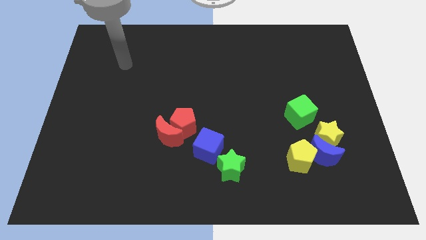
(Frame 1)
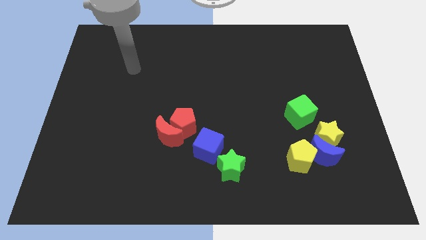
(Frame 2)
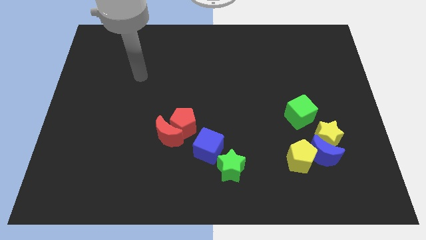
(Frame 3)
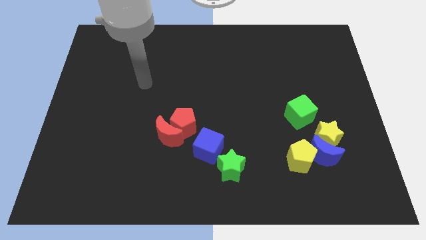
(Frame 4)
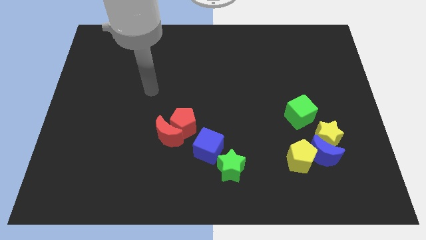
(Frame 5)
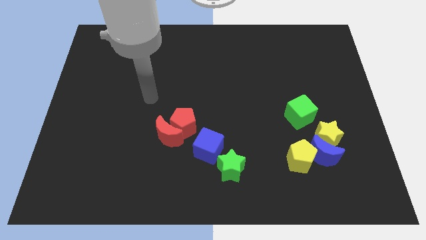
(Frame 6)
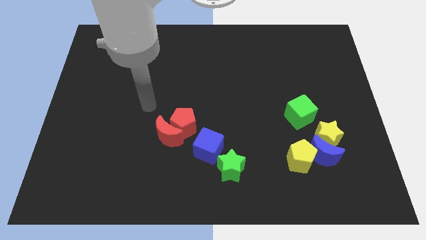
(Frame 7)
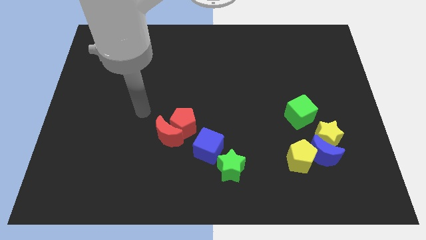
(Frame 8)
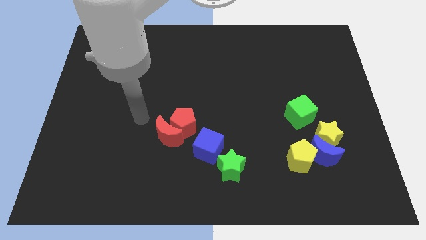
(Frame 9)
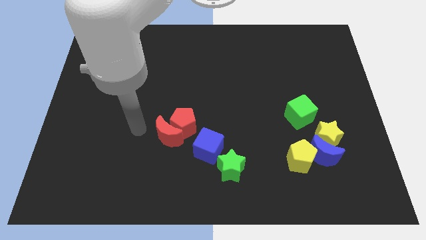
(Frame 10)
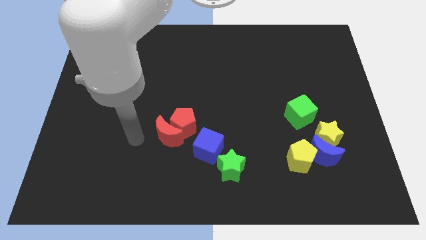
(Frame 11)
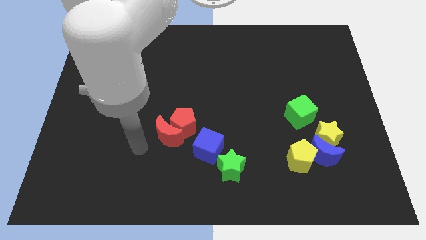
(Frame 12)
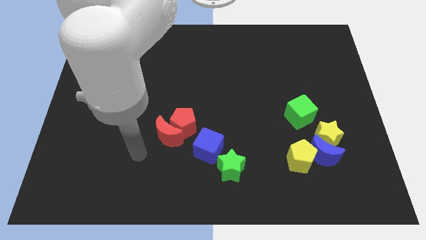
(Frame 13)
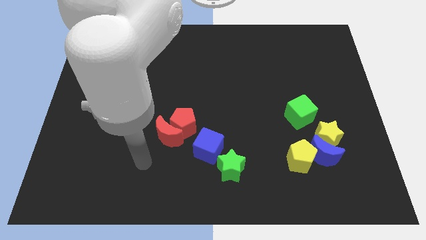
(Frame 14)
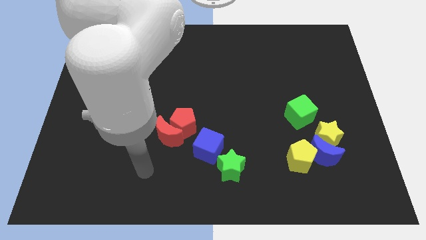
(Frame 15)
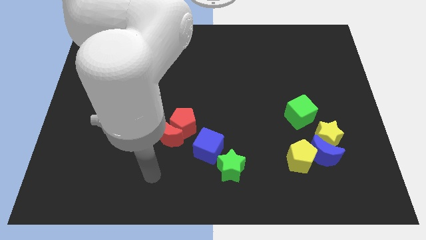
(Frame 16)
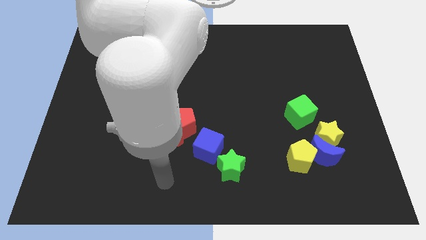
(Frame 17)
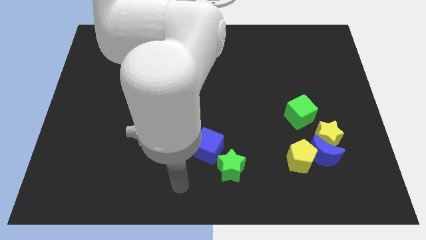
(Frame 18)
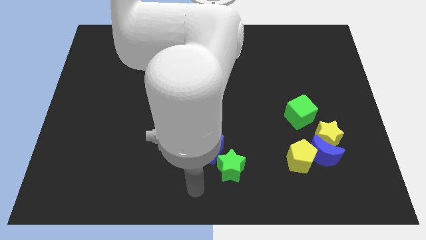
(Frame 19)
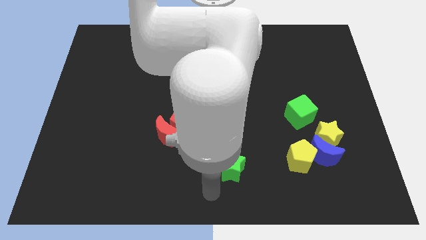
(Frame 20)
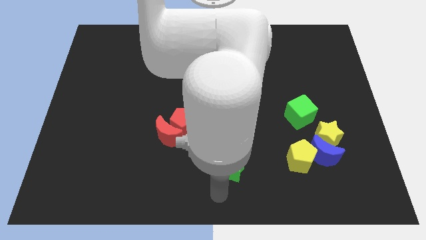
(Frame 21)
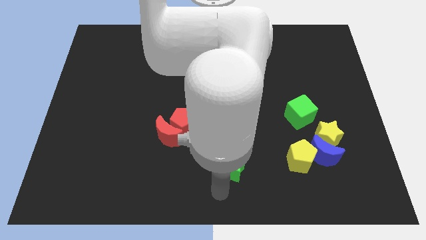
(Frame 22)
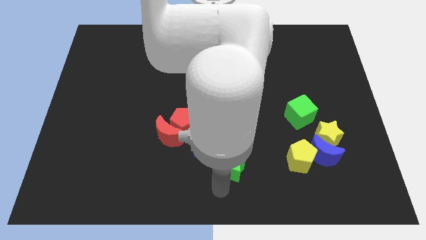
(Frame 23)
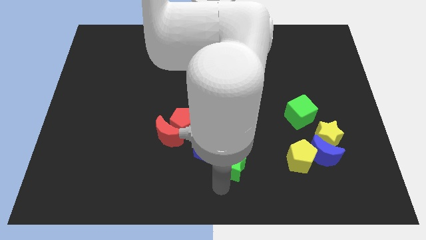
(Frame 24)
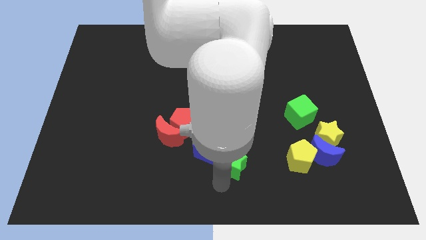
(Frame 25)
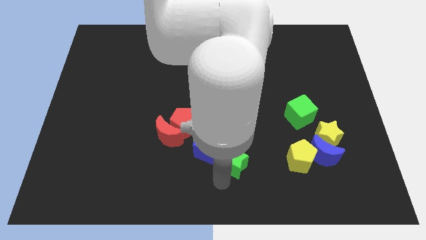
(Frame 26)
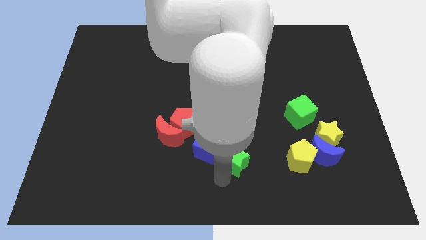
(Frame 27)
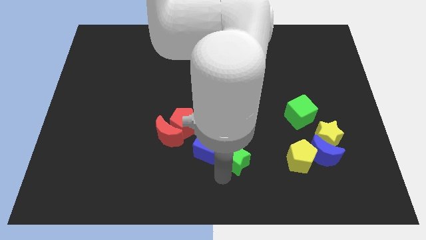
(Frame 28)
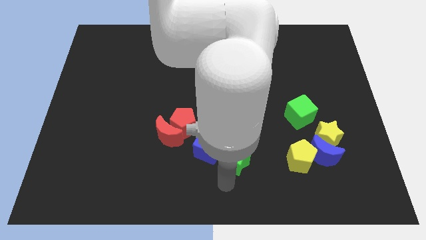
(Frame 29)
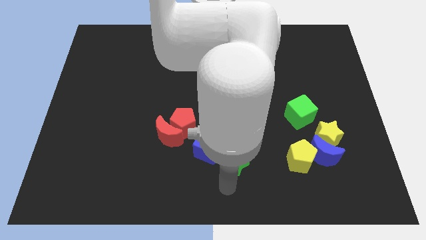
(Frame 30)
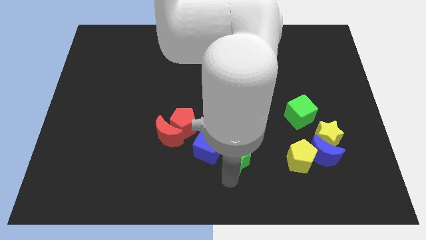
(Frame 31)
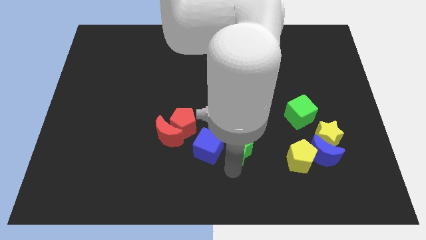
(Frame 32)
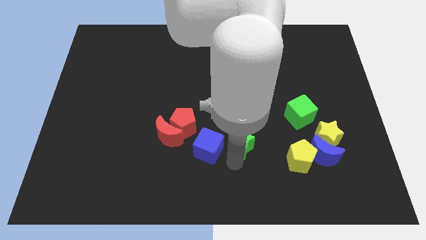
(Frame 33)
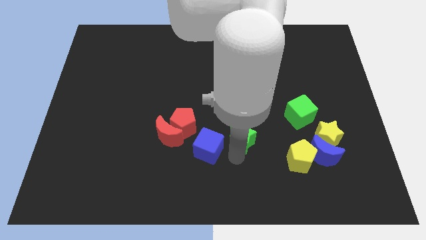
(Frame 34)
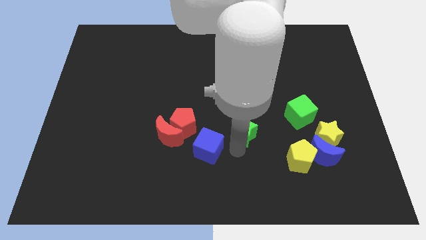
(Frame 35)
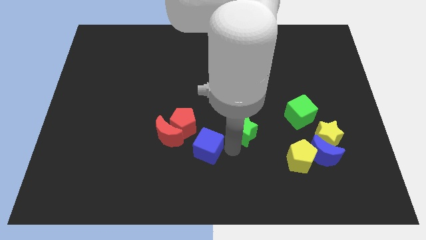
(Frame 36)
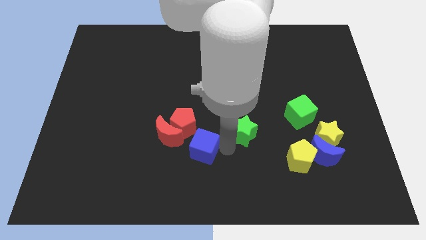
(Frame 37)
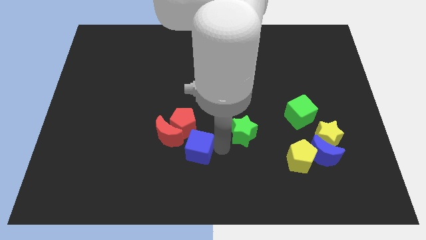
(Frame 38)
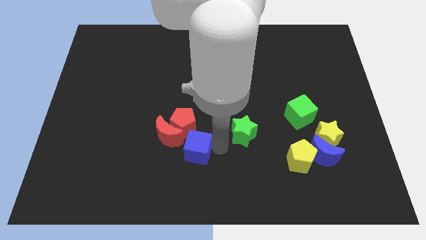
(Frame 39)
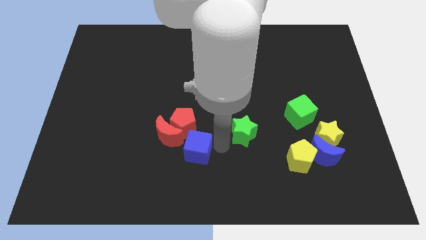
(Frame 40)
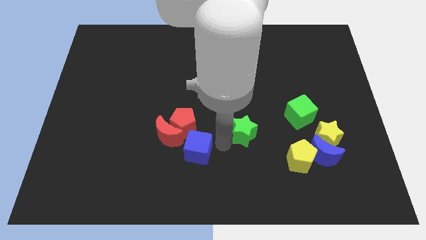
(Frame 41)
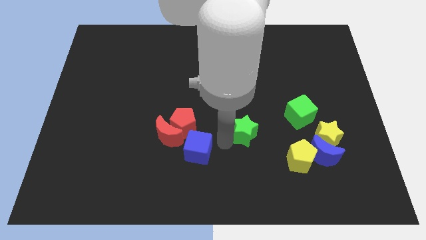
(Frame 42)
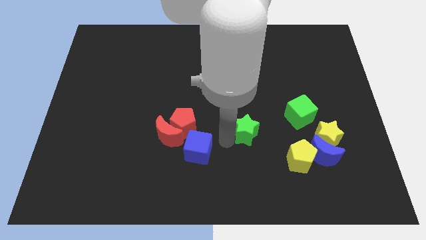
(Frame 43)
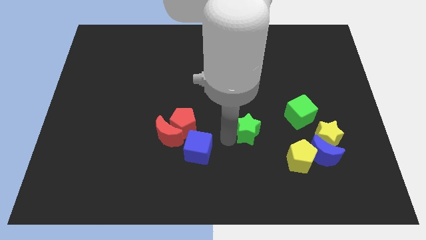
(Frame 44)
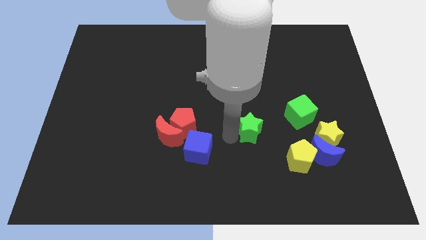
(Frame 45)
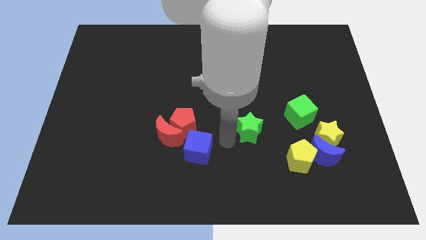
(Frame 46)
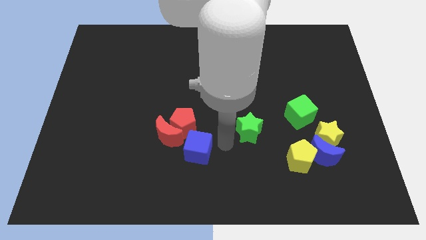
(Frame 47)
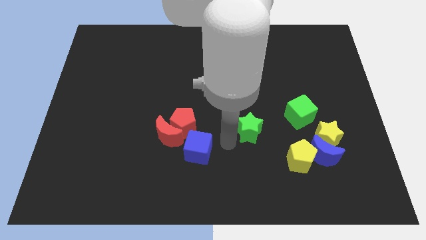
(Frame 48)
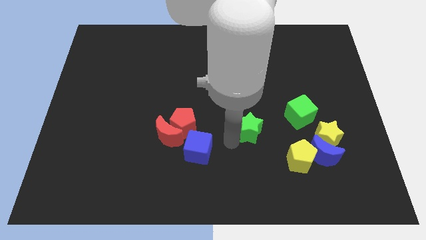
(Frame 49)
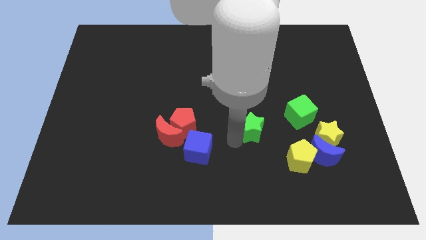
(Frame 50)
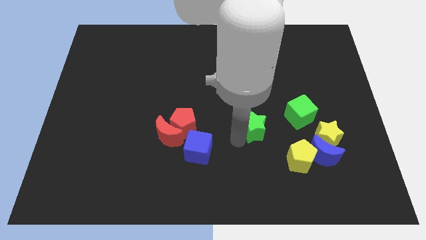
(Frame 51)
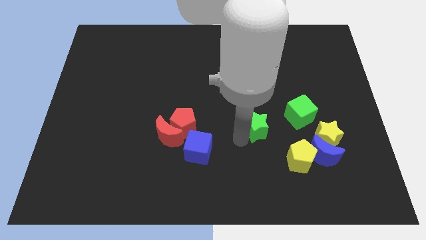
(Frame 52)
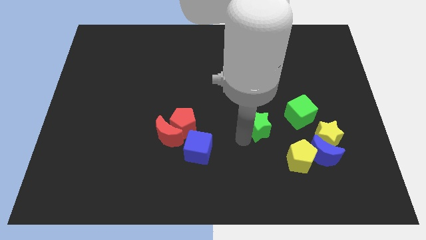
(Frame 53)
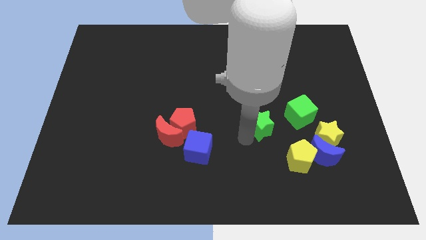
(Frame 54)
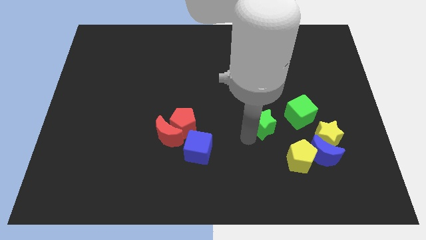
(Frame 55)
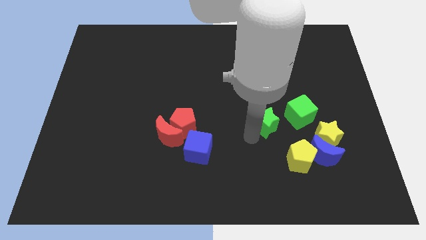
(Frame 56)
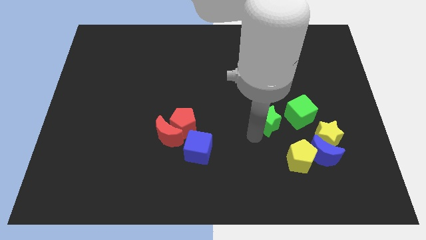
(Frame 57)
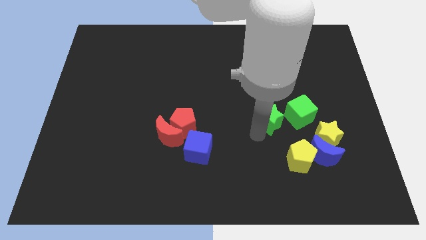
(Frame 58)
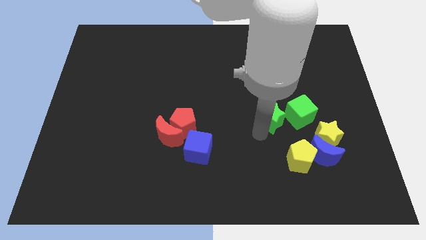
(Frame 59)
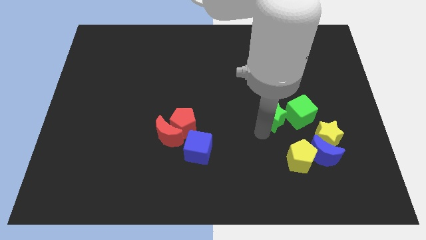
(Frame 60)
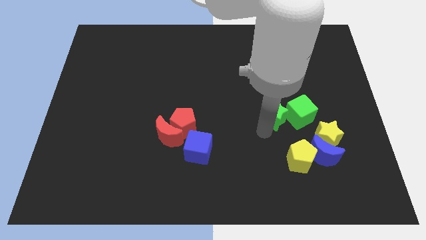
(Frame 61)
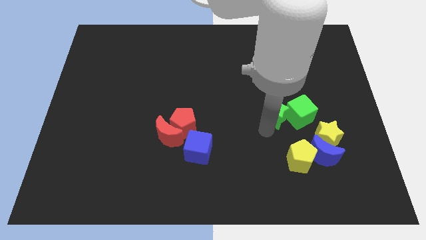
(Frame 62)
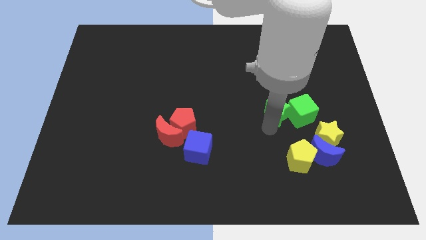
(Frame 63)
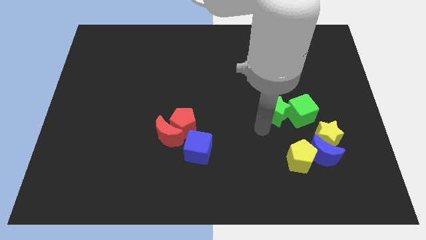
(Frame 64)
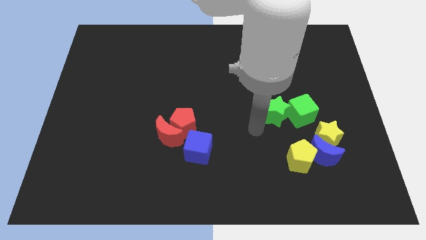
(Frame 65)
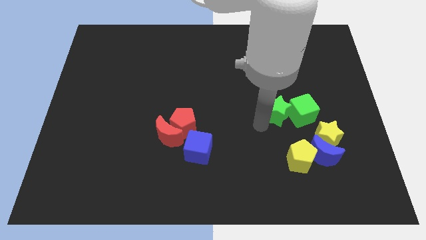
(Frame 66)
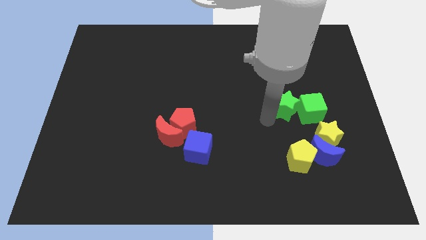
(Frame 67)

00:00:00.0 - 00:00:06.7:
move the green star diagonally upwards and right

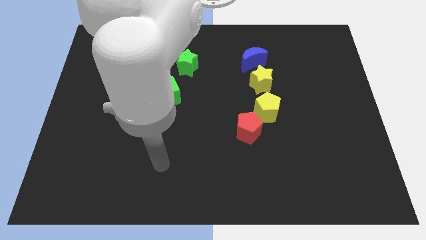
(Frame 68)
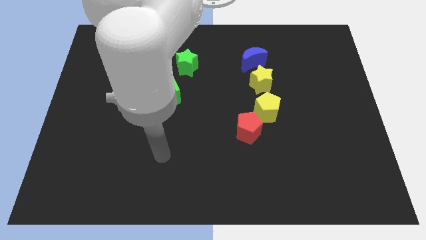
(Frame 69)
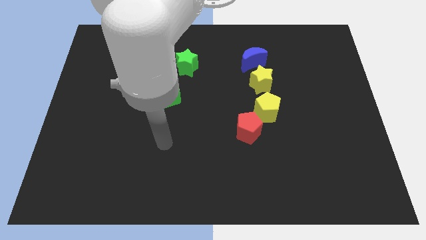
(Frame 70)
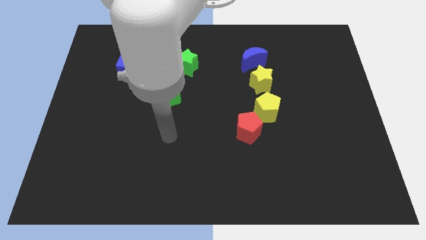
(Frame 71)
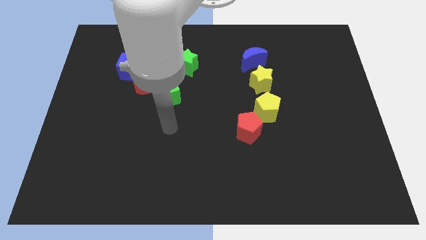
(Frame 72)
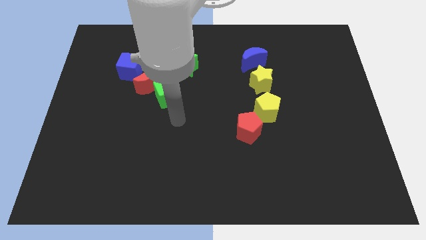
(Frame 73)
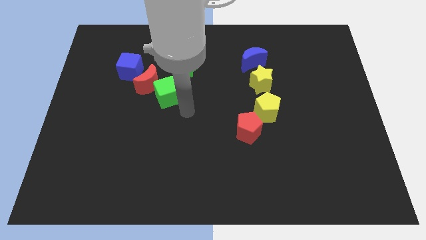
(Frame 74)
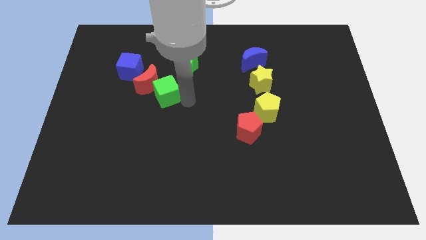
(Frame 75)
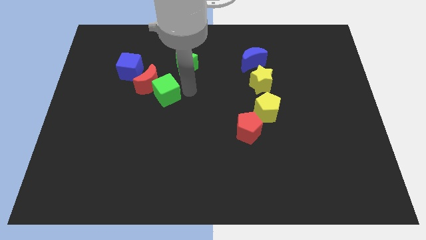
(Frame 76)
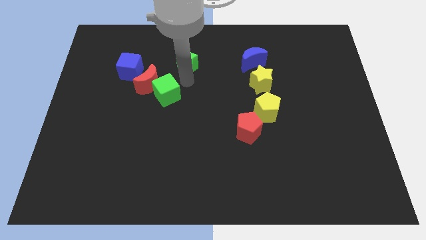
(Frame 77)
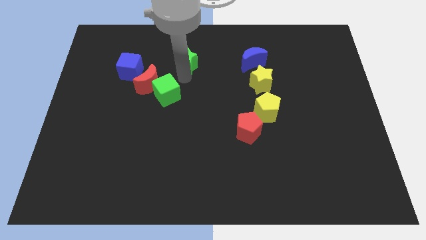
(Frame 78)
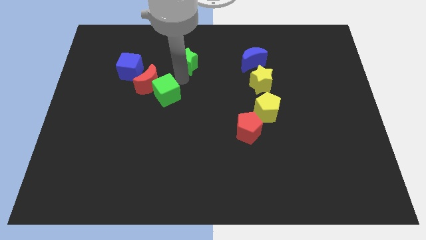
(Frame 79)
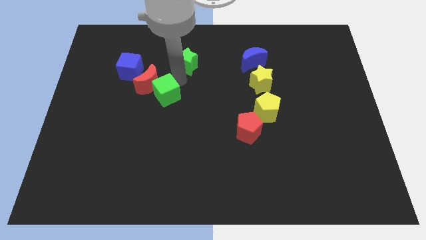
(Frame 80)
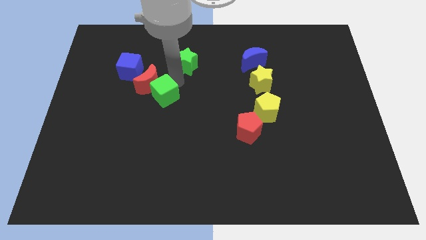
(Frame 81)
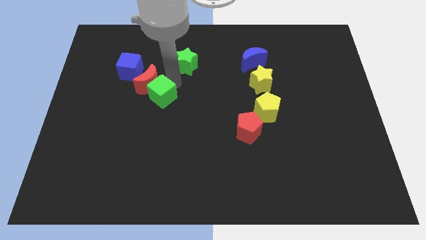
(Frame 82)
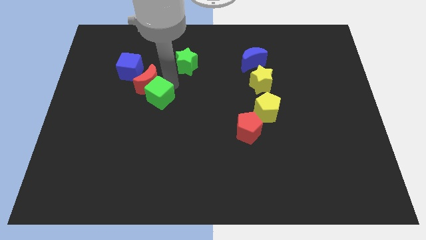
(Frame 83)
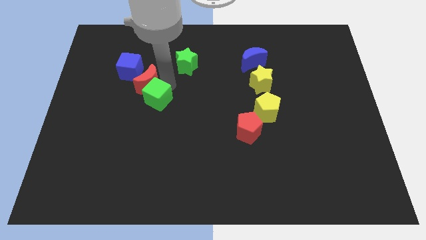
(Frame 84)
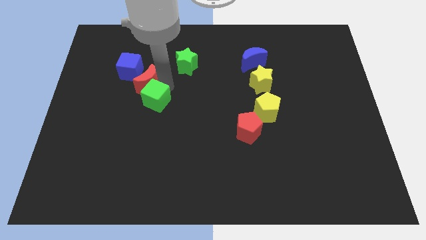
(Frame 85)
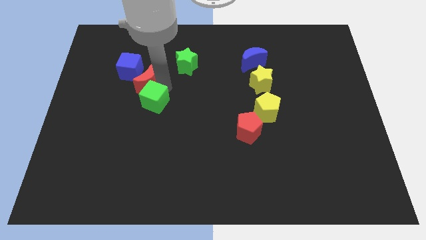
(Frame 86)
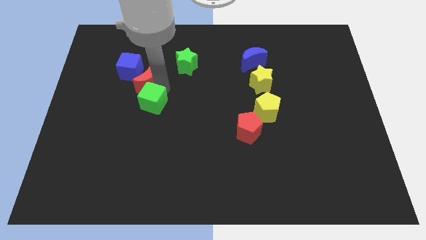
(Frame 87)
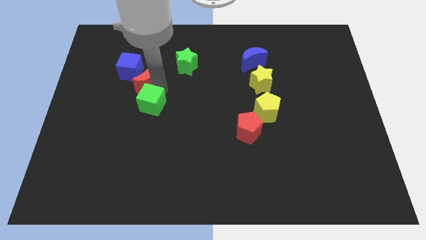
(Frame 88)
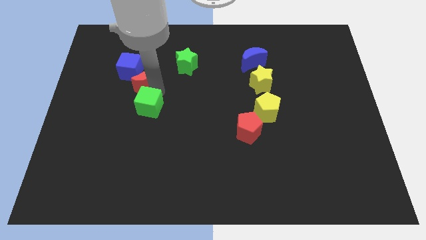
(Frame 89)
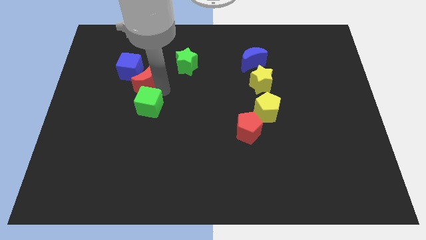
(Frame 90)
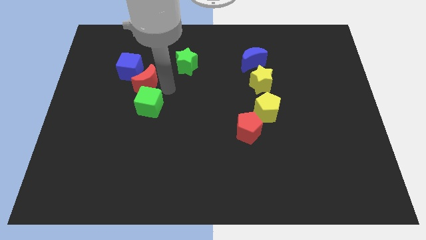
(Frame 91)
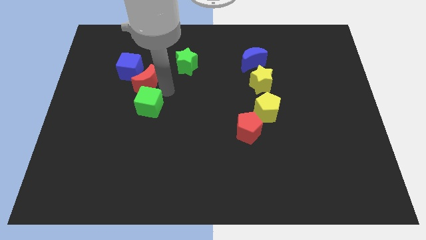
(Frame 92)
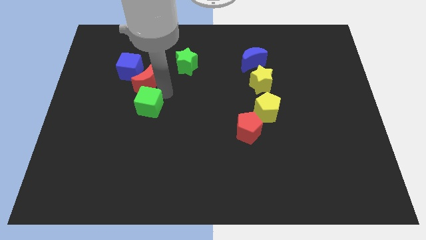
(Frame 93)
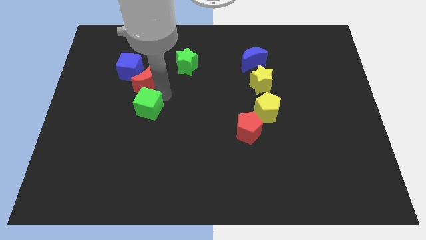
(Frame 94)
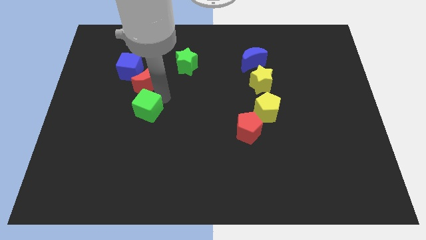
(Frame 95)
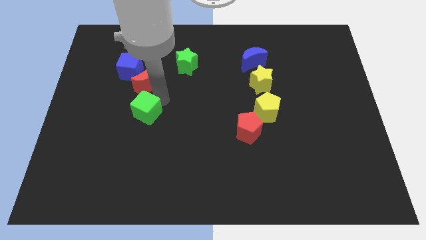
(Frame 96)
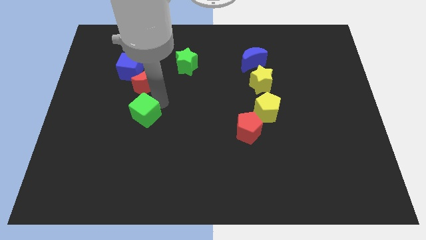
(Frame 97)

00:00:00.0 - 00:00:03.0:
slide the green cube down and left a bit
